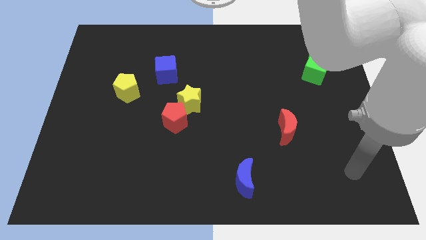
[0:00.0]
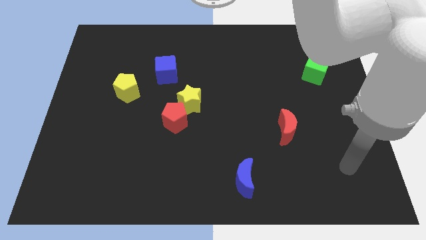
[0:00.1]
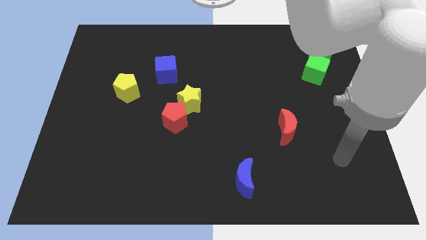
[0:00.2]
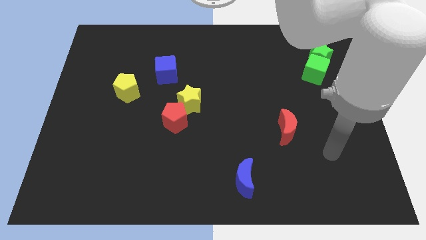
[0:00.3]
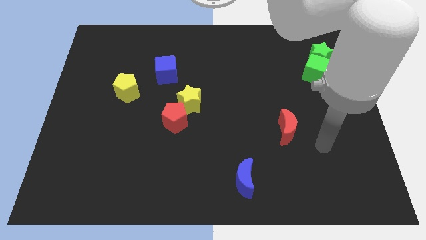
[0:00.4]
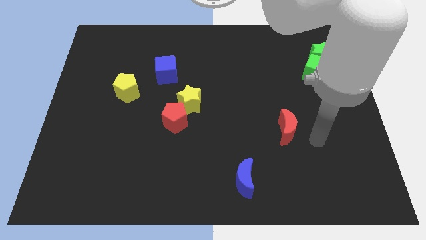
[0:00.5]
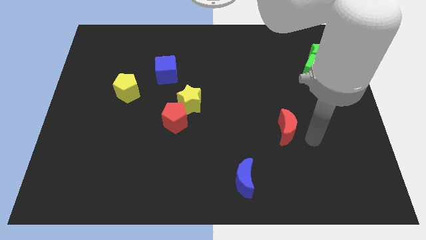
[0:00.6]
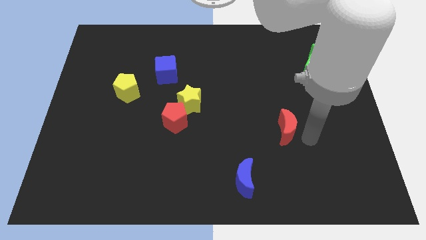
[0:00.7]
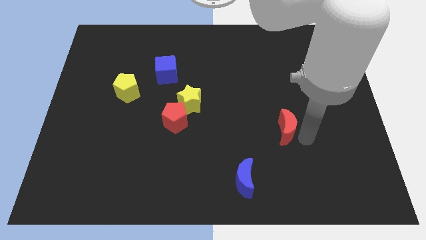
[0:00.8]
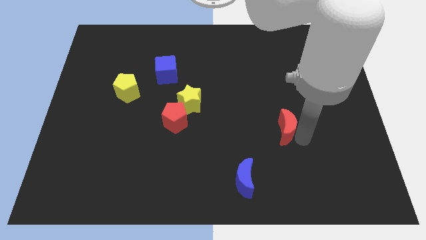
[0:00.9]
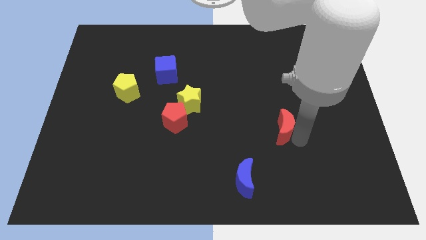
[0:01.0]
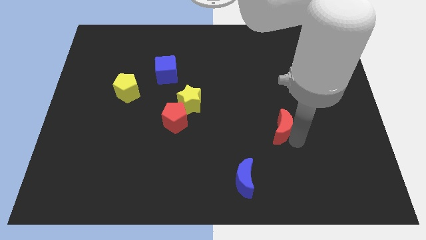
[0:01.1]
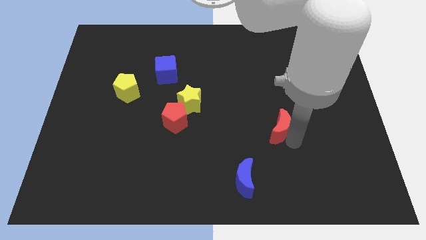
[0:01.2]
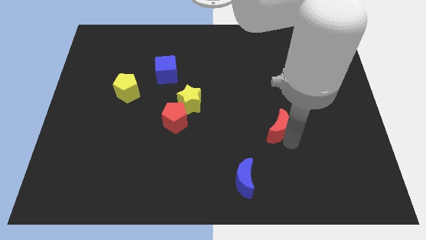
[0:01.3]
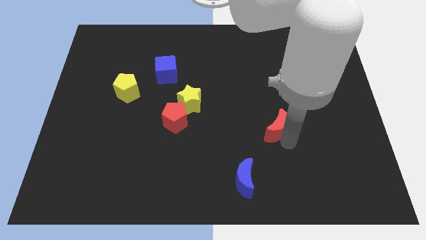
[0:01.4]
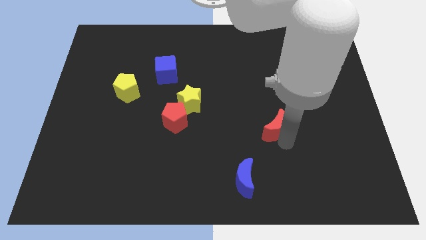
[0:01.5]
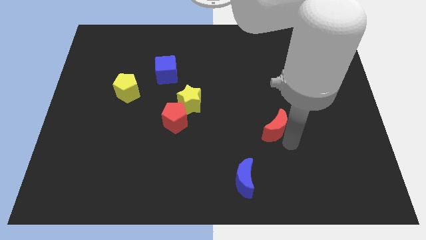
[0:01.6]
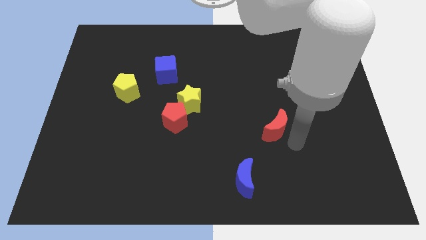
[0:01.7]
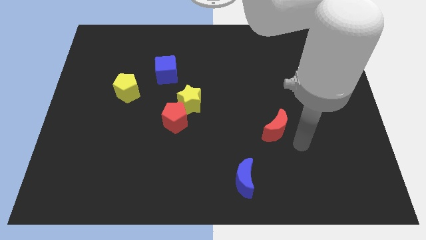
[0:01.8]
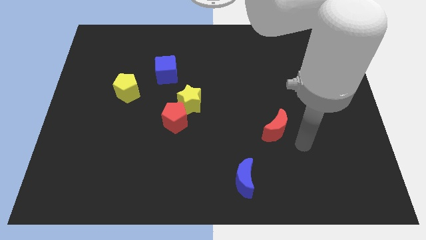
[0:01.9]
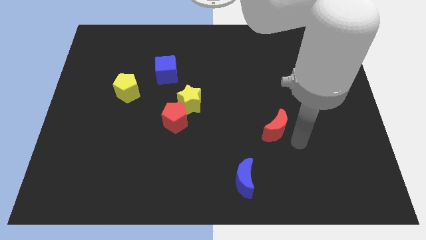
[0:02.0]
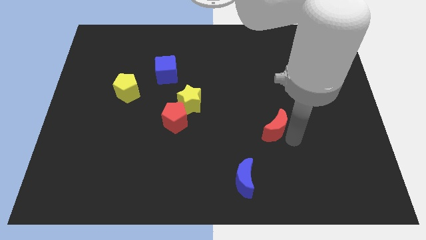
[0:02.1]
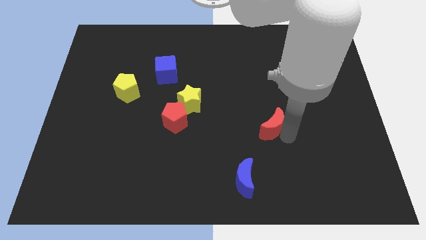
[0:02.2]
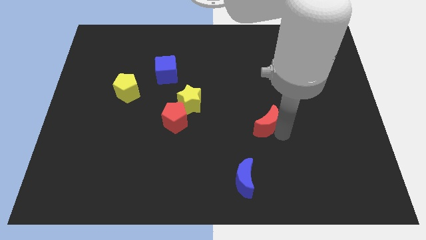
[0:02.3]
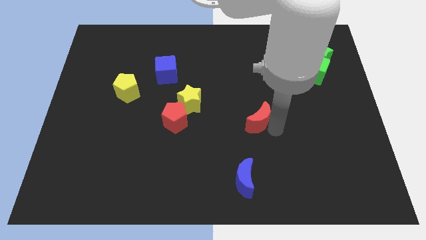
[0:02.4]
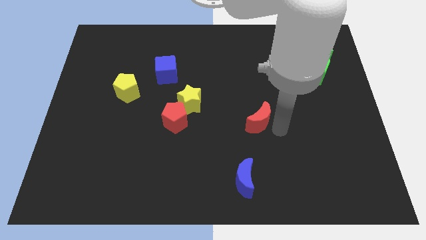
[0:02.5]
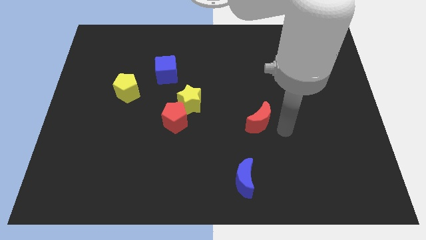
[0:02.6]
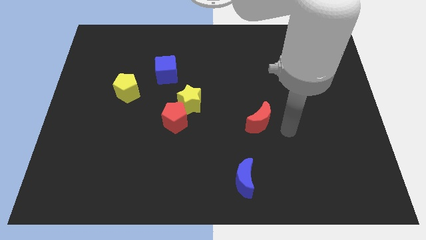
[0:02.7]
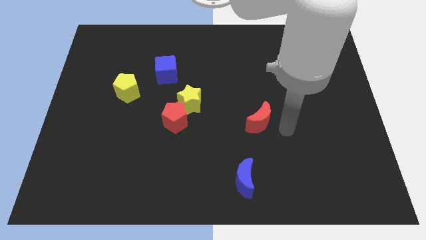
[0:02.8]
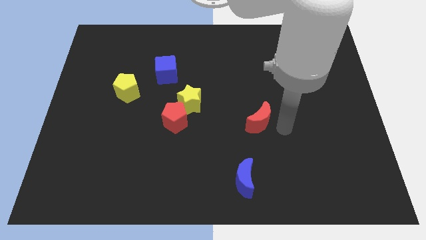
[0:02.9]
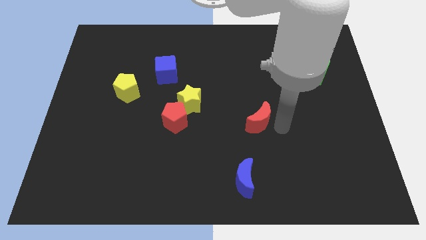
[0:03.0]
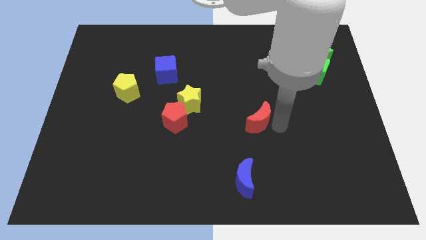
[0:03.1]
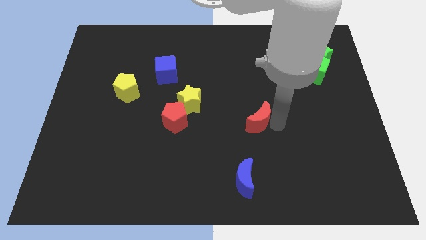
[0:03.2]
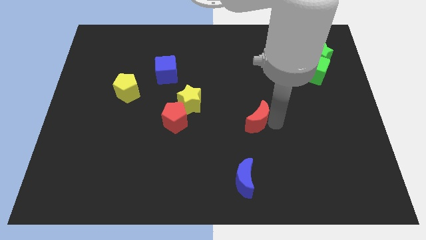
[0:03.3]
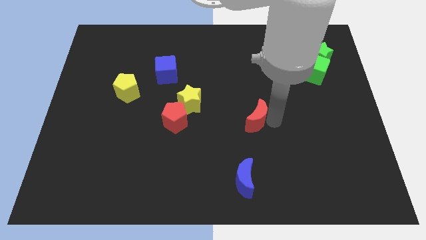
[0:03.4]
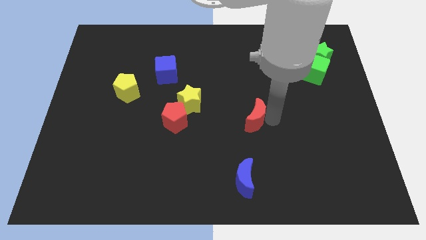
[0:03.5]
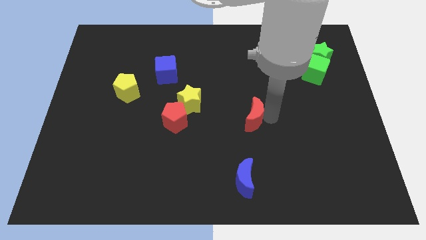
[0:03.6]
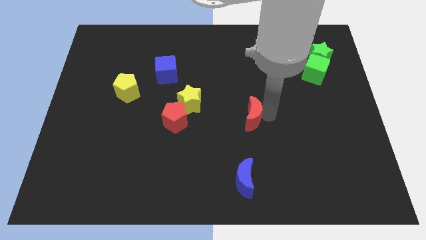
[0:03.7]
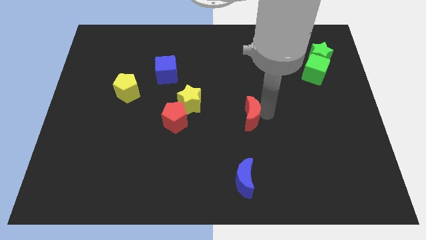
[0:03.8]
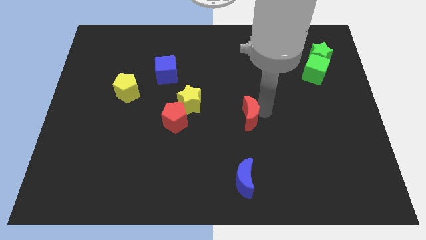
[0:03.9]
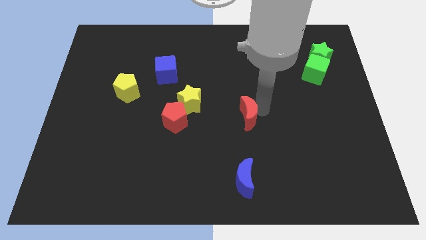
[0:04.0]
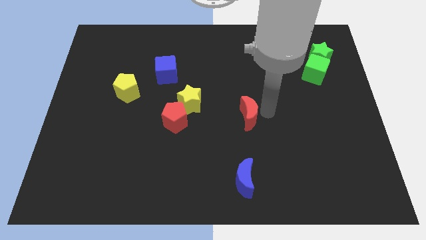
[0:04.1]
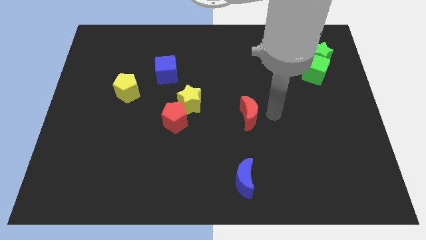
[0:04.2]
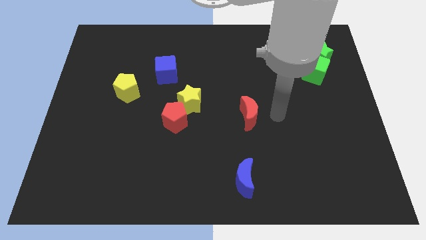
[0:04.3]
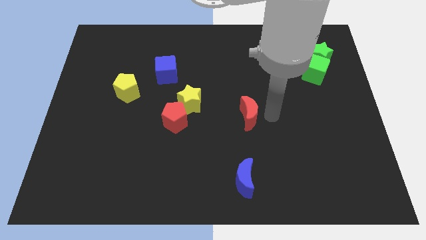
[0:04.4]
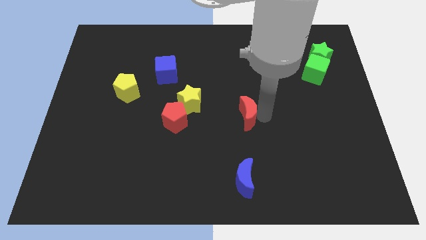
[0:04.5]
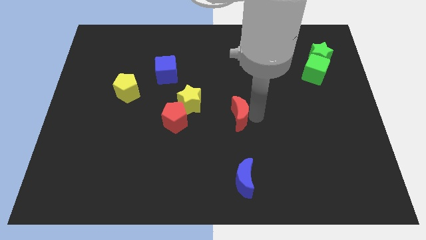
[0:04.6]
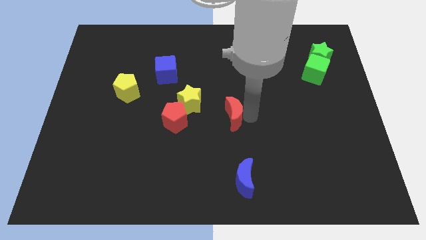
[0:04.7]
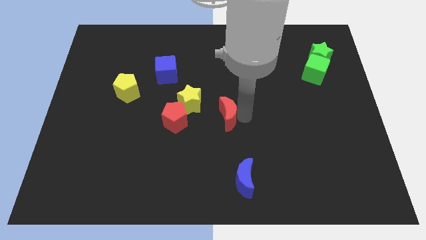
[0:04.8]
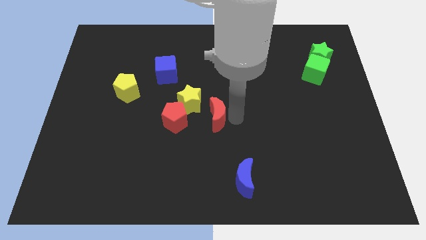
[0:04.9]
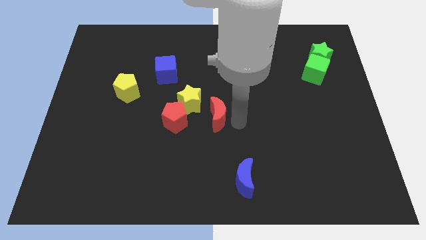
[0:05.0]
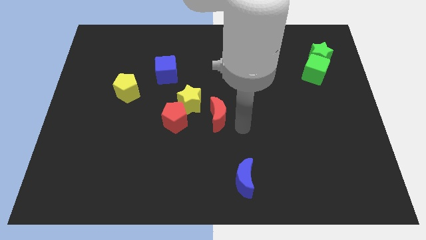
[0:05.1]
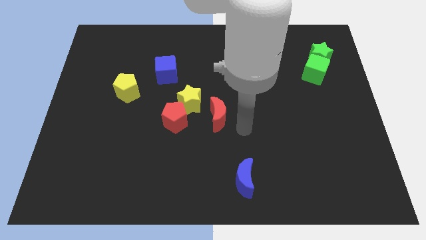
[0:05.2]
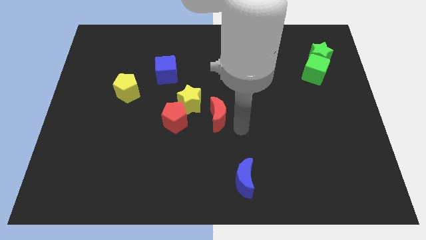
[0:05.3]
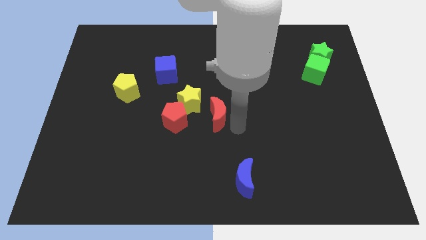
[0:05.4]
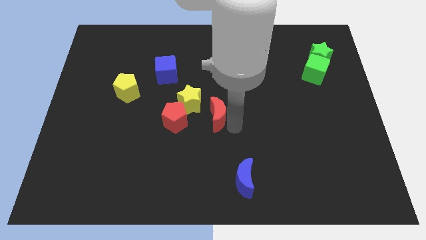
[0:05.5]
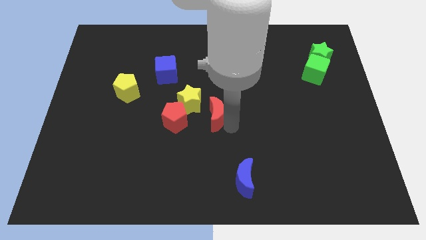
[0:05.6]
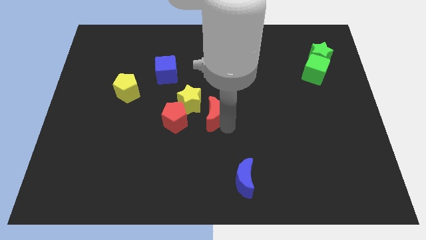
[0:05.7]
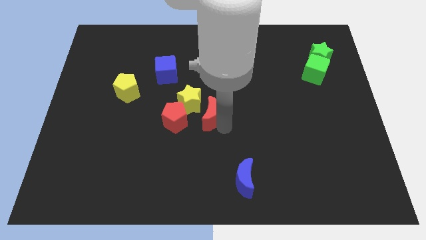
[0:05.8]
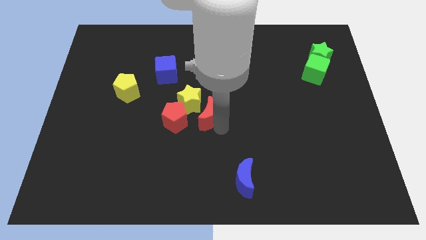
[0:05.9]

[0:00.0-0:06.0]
put the red moon next to the yellow star

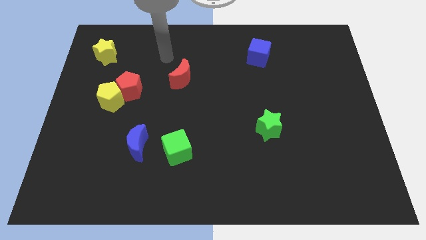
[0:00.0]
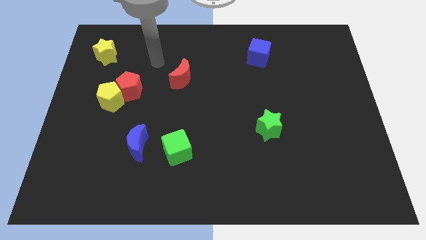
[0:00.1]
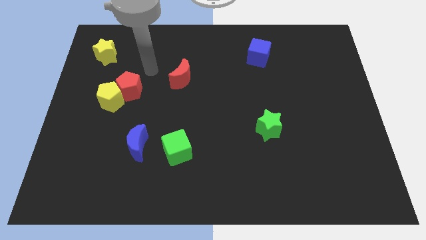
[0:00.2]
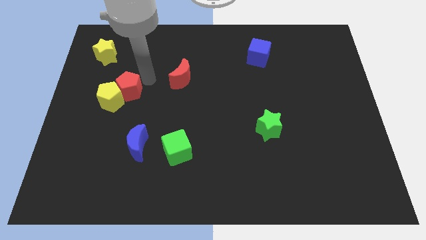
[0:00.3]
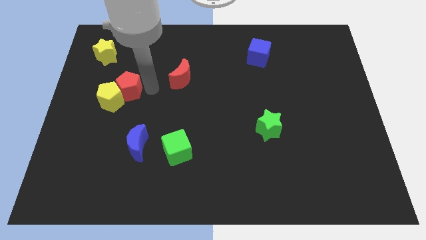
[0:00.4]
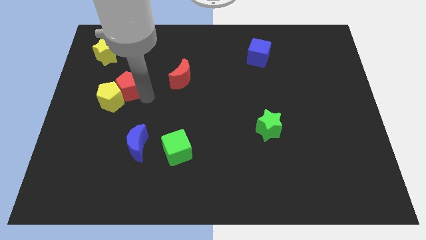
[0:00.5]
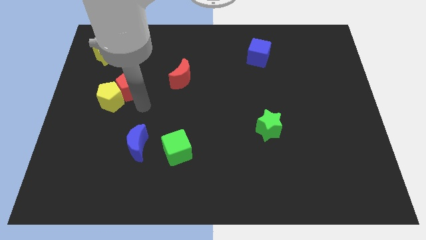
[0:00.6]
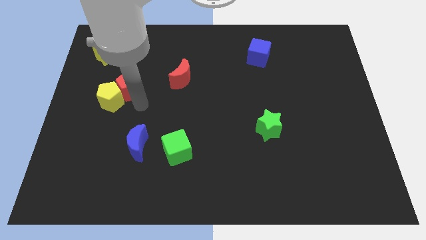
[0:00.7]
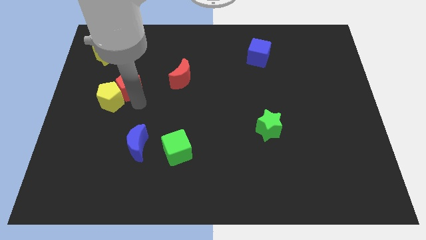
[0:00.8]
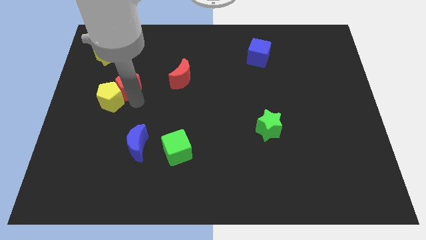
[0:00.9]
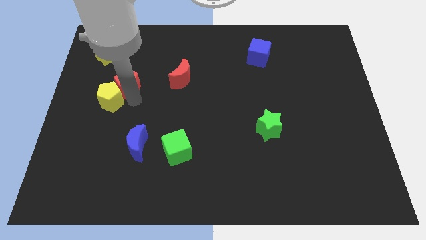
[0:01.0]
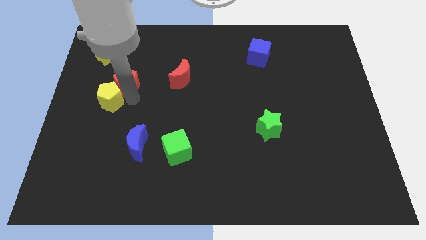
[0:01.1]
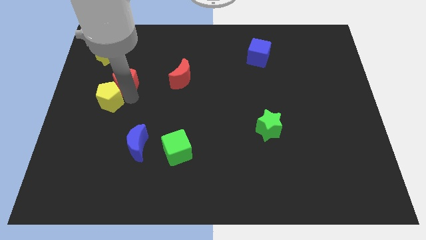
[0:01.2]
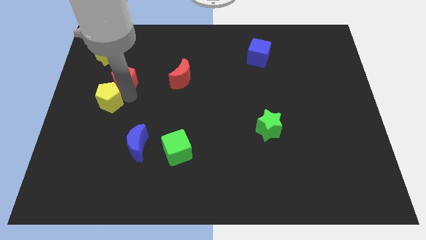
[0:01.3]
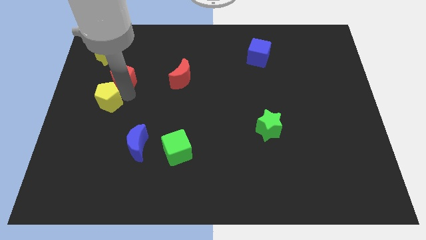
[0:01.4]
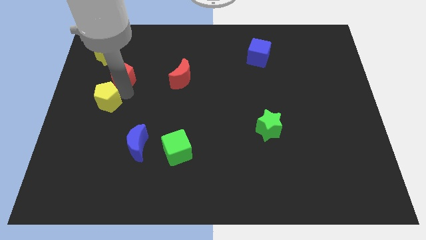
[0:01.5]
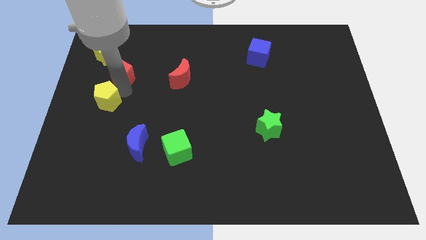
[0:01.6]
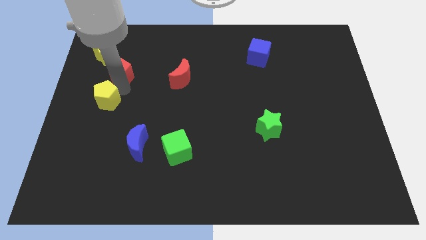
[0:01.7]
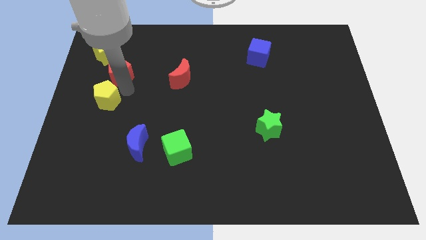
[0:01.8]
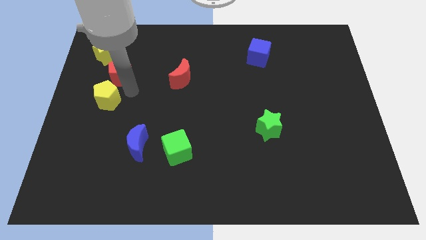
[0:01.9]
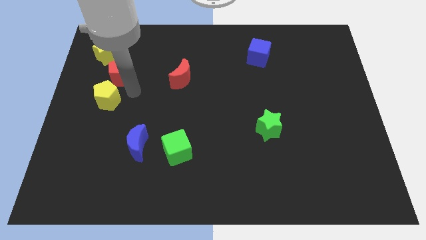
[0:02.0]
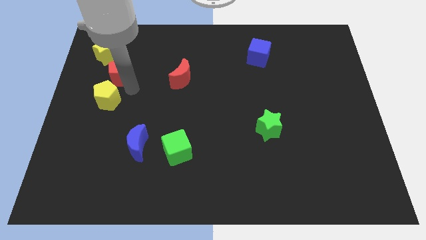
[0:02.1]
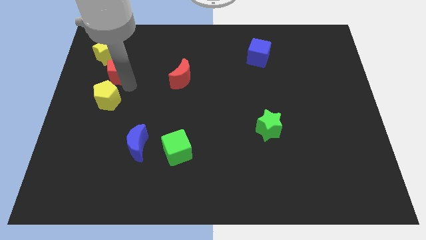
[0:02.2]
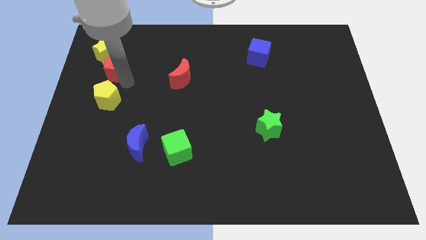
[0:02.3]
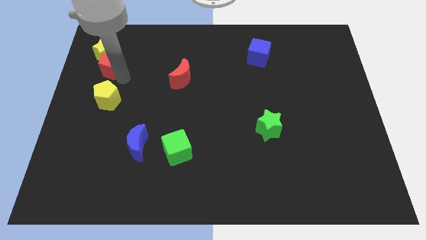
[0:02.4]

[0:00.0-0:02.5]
move the red pentagon next to the yellow star
